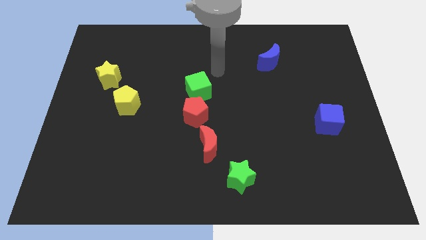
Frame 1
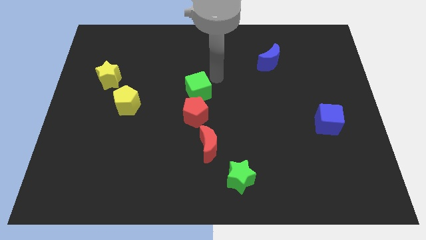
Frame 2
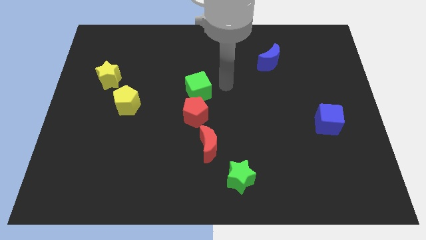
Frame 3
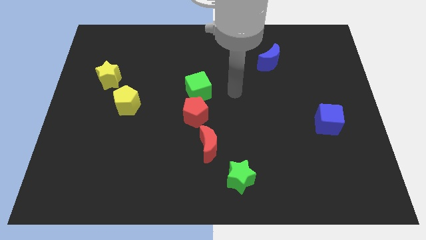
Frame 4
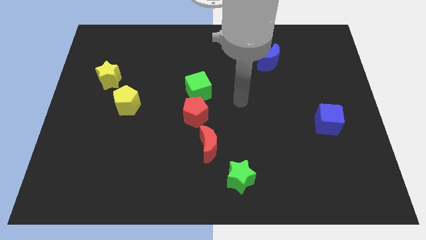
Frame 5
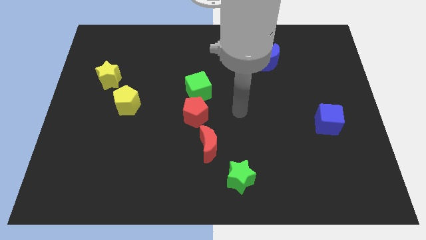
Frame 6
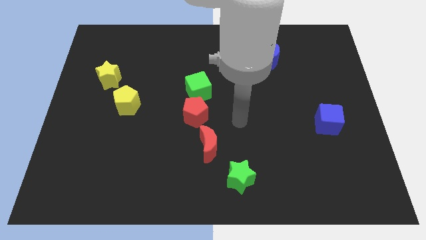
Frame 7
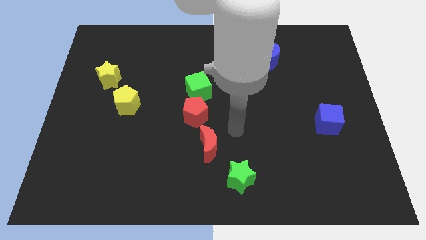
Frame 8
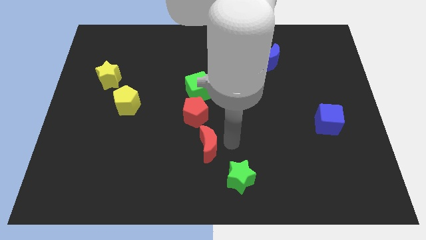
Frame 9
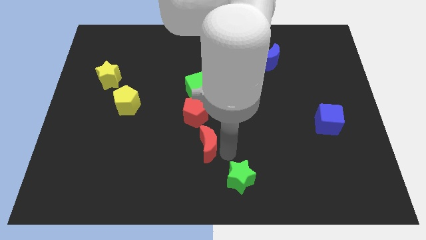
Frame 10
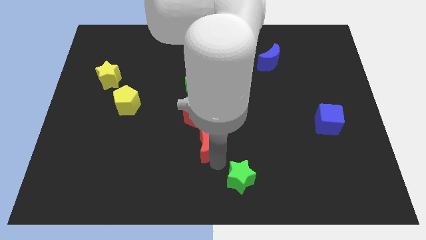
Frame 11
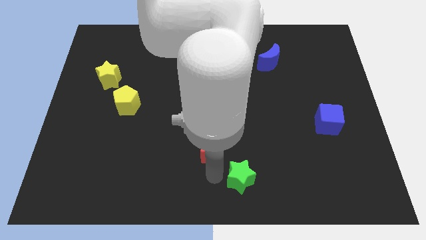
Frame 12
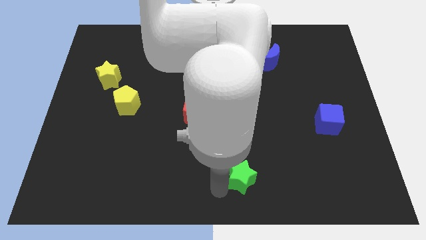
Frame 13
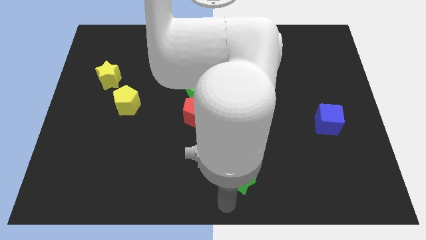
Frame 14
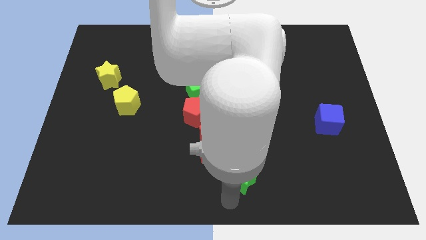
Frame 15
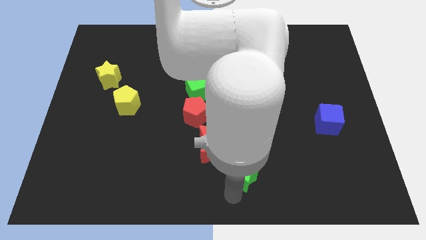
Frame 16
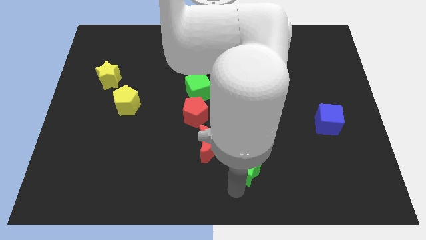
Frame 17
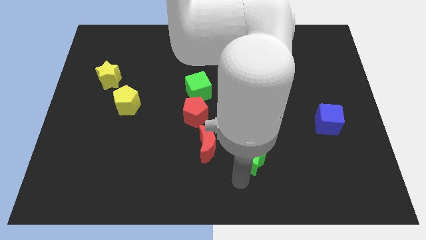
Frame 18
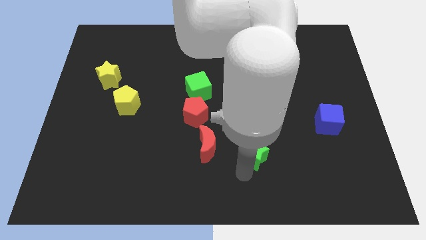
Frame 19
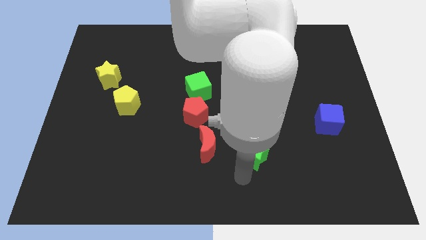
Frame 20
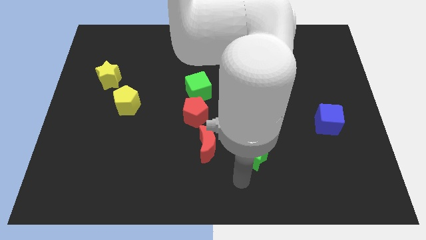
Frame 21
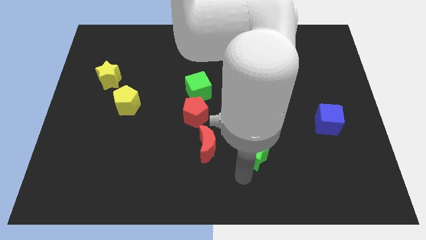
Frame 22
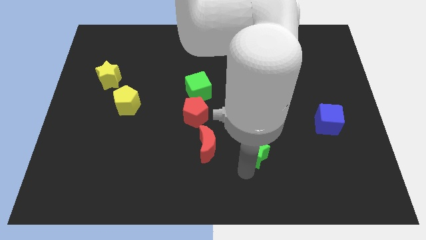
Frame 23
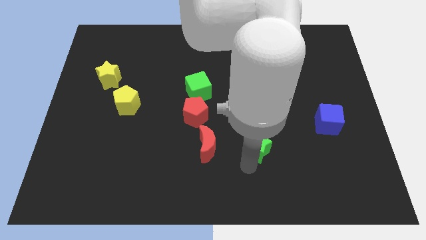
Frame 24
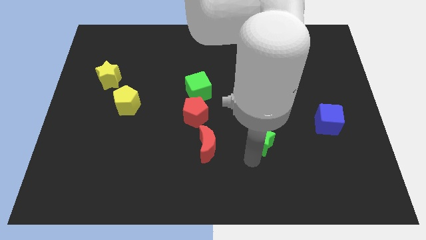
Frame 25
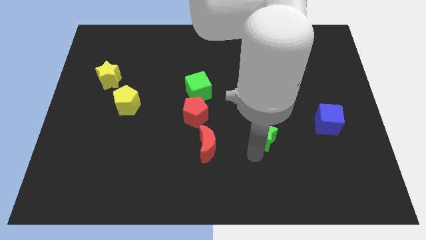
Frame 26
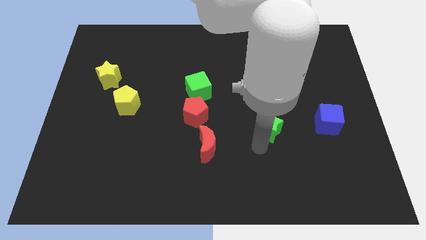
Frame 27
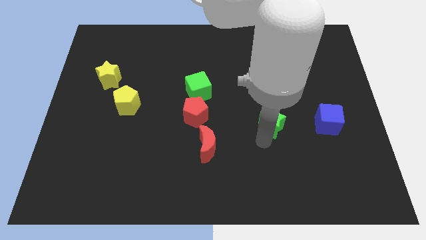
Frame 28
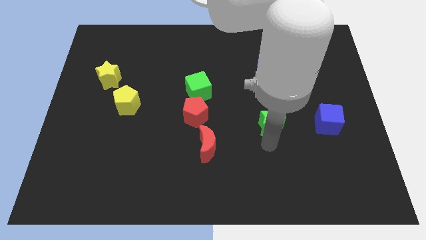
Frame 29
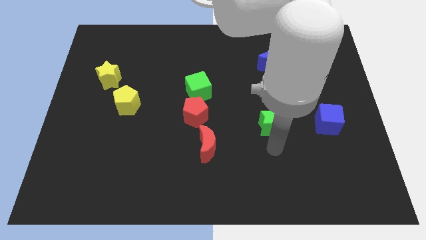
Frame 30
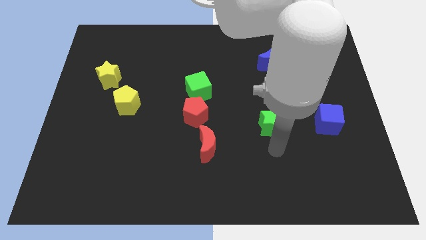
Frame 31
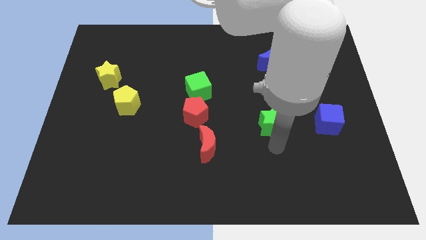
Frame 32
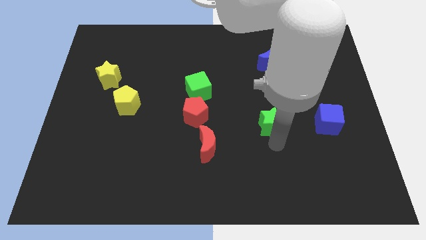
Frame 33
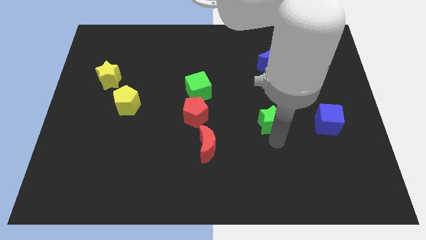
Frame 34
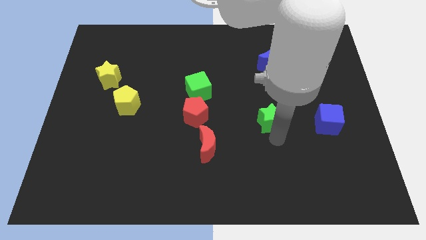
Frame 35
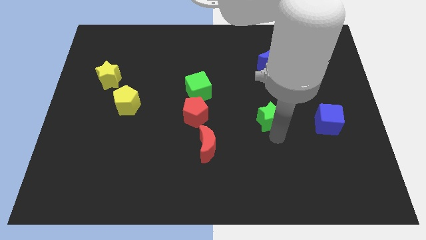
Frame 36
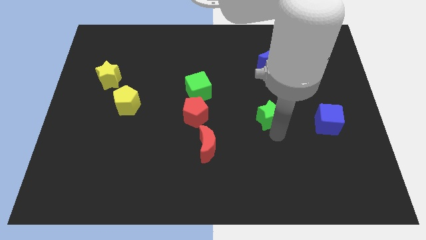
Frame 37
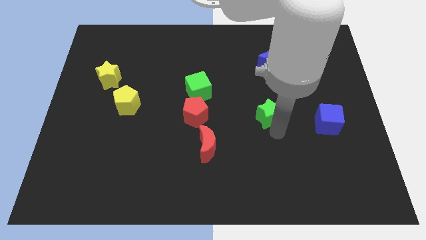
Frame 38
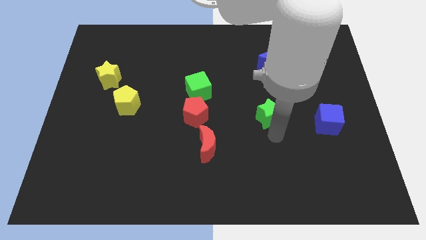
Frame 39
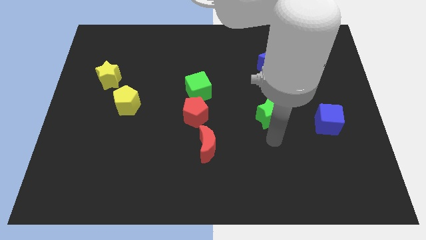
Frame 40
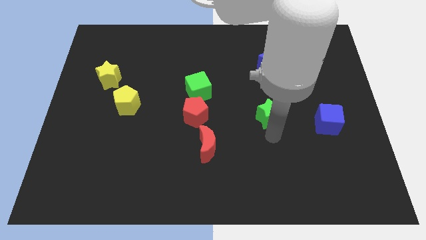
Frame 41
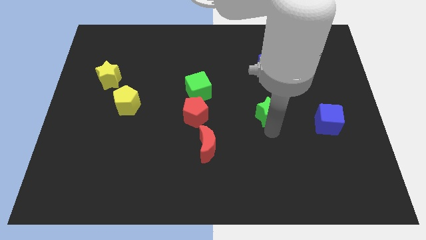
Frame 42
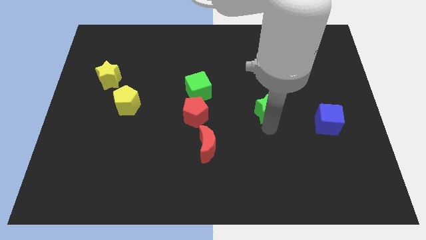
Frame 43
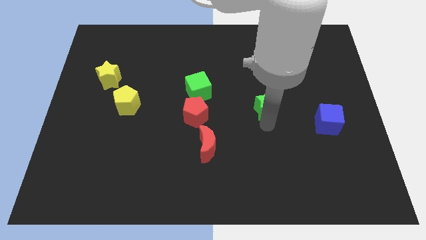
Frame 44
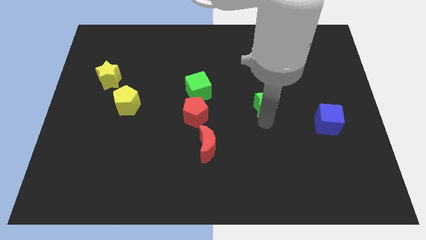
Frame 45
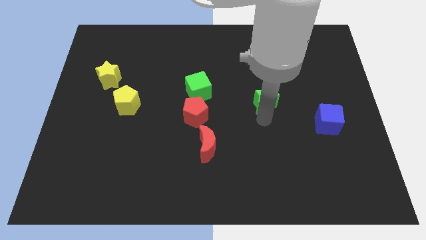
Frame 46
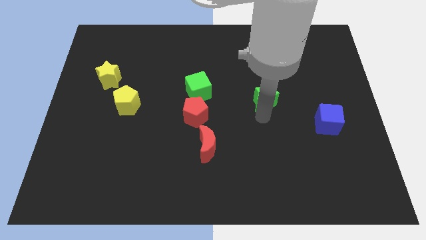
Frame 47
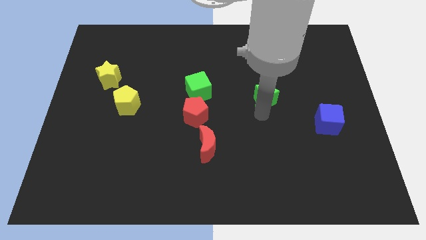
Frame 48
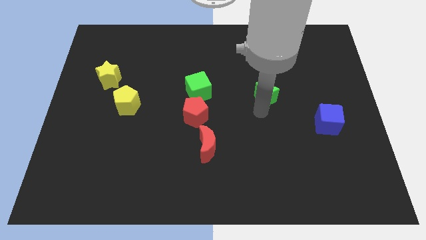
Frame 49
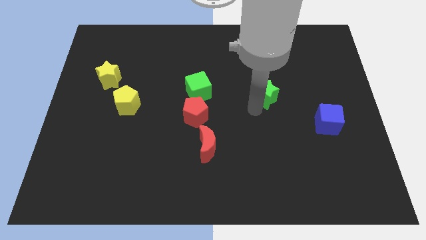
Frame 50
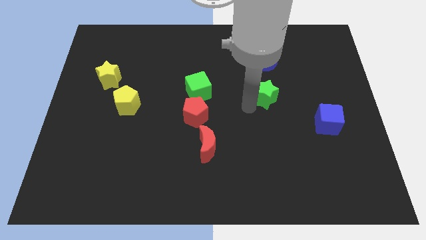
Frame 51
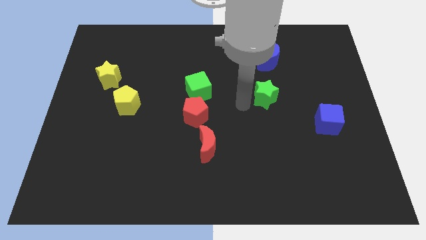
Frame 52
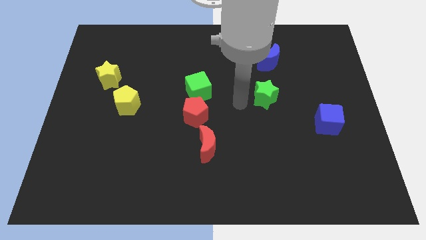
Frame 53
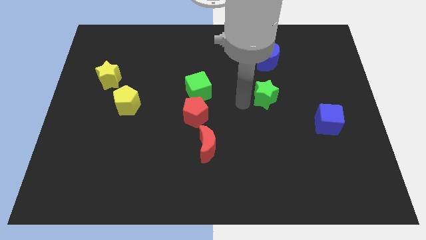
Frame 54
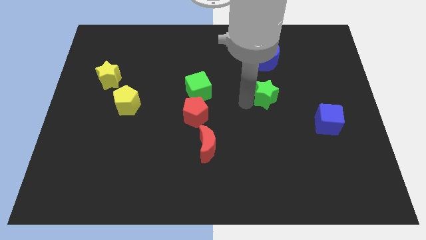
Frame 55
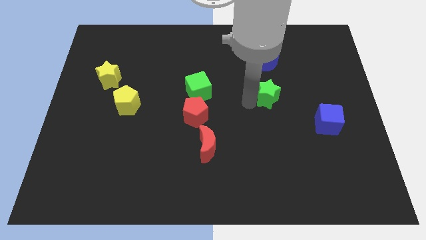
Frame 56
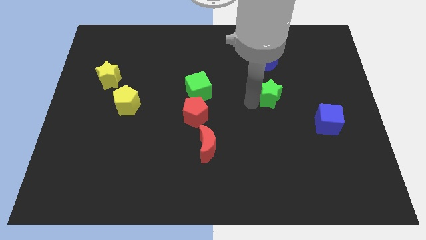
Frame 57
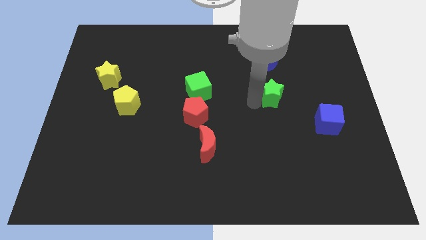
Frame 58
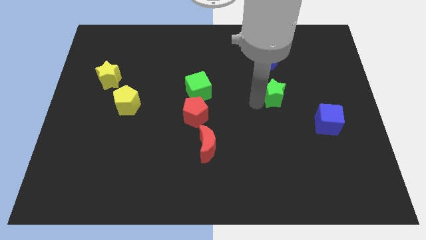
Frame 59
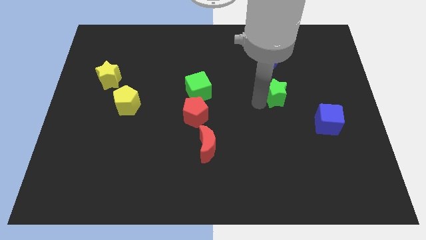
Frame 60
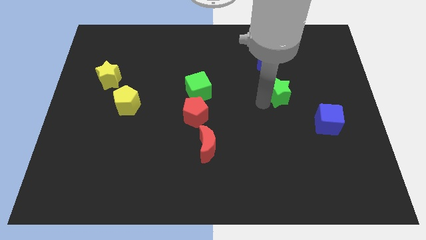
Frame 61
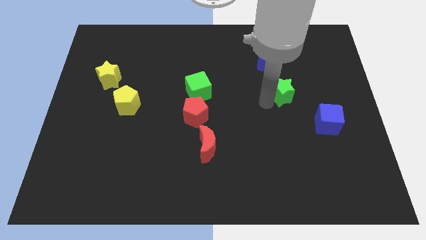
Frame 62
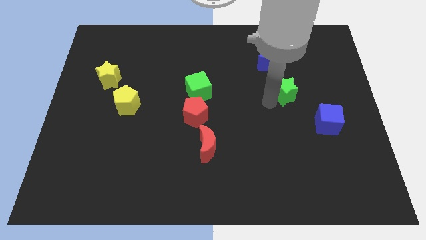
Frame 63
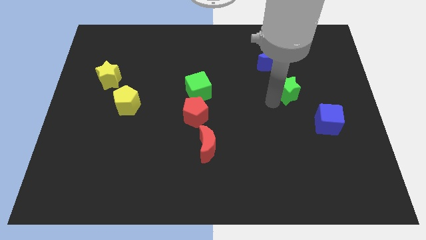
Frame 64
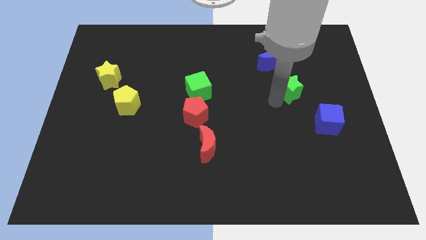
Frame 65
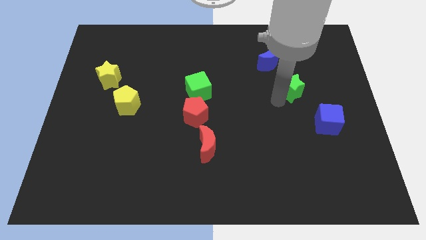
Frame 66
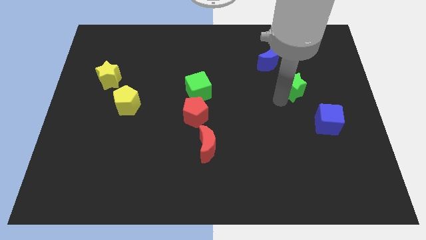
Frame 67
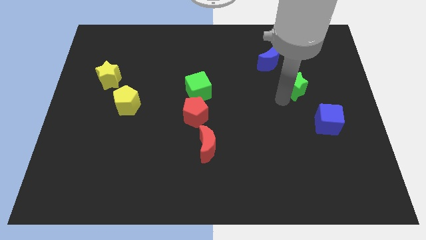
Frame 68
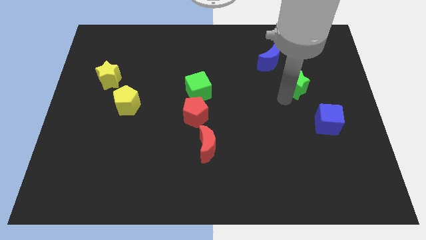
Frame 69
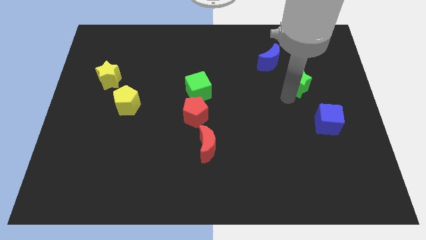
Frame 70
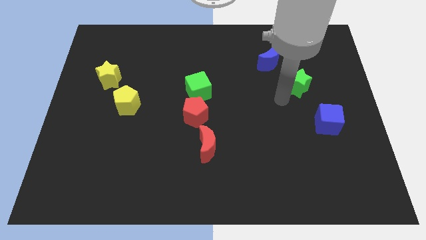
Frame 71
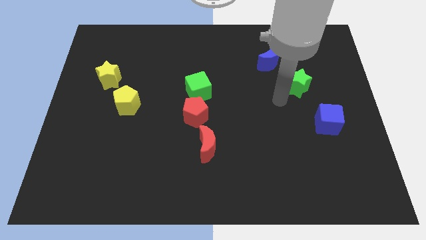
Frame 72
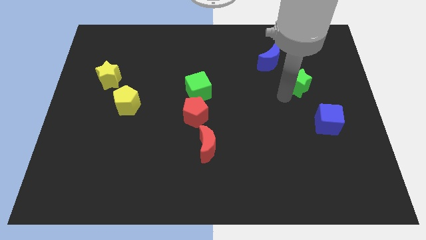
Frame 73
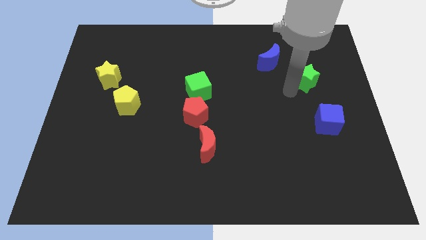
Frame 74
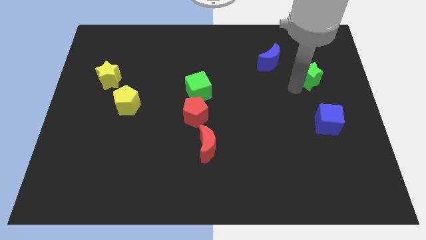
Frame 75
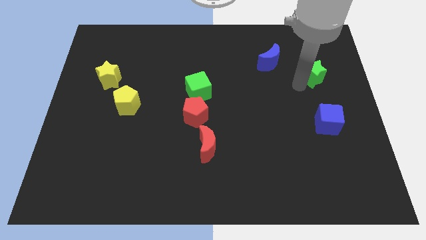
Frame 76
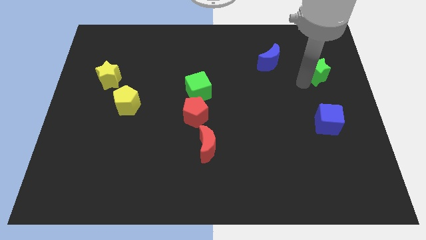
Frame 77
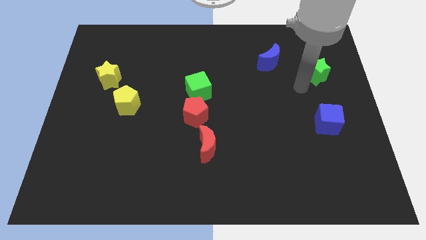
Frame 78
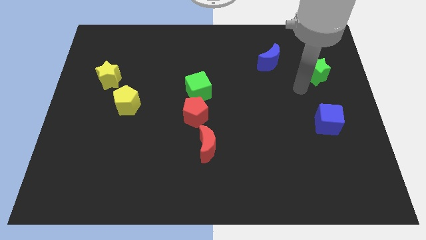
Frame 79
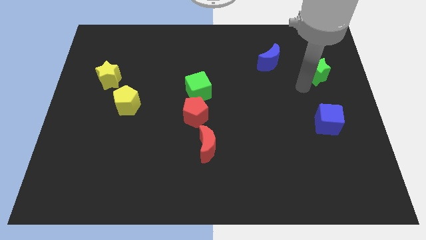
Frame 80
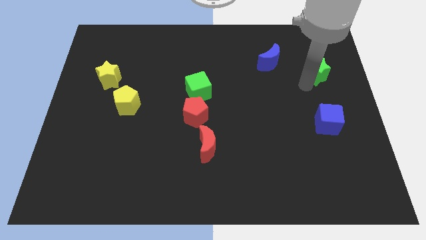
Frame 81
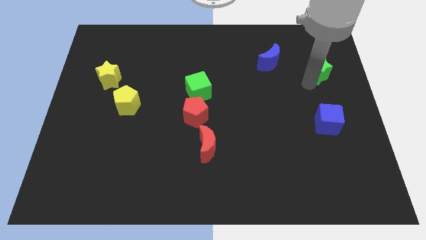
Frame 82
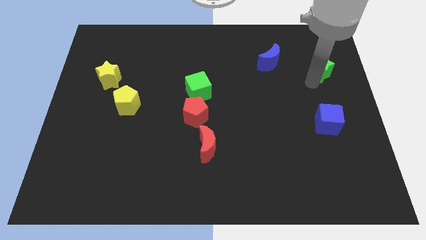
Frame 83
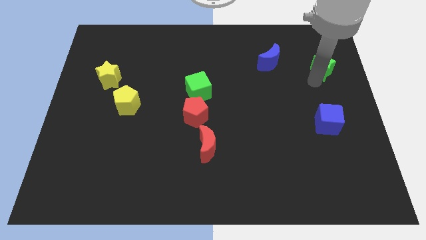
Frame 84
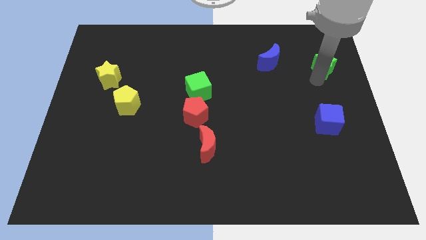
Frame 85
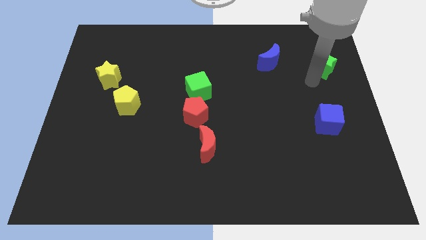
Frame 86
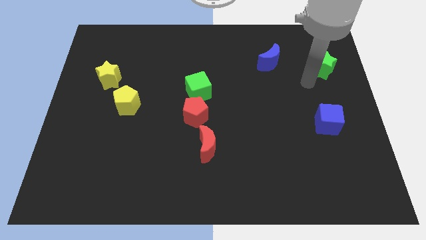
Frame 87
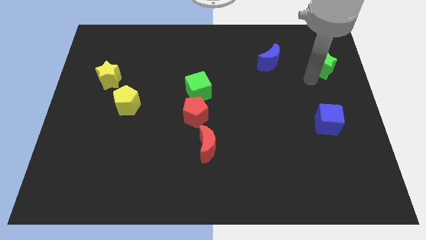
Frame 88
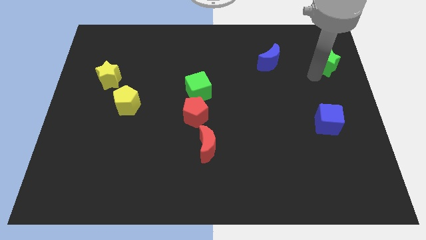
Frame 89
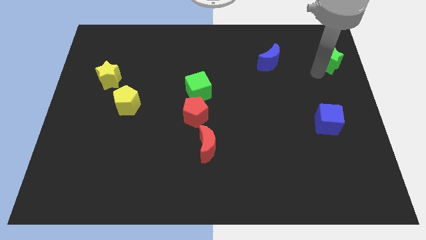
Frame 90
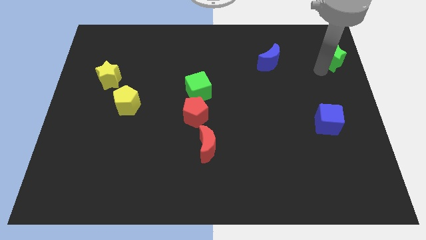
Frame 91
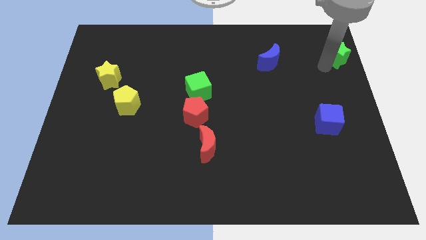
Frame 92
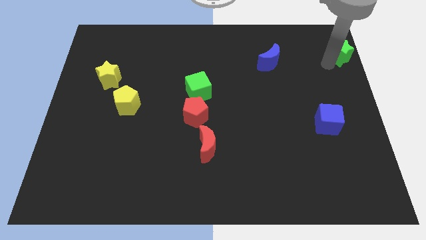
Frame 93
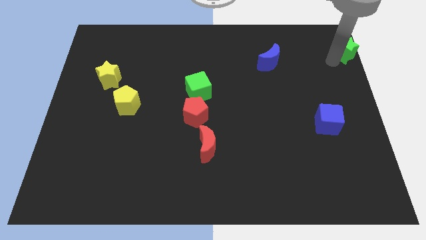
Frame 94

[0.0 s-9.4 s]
move the green star to the upper right corner
